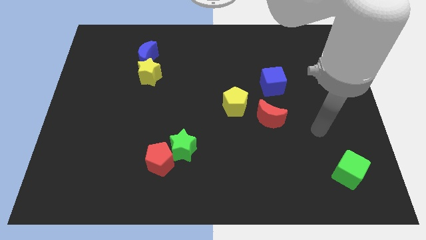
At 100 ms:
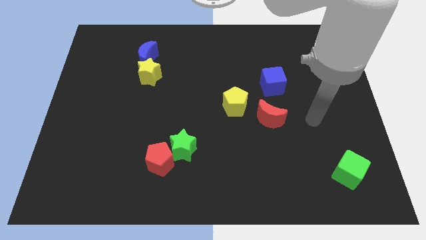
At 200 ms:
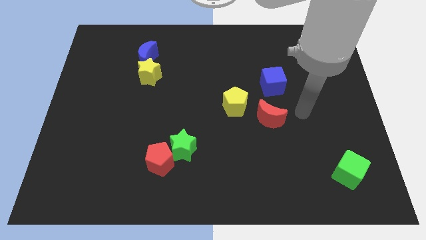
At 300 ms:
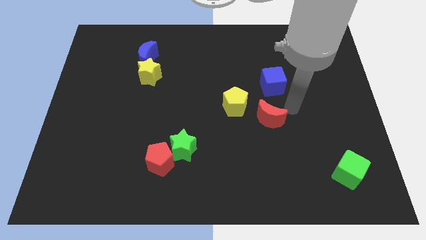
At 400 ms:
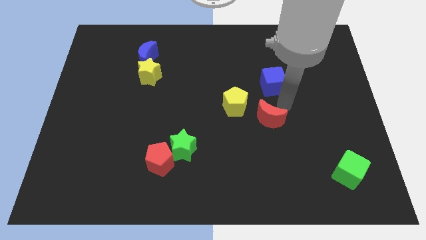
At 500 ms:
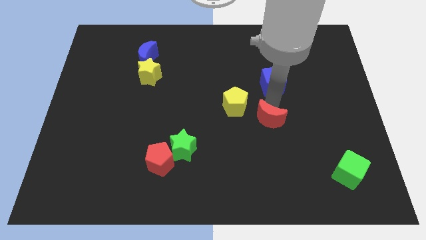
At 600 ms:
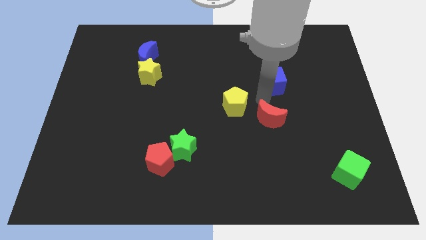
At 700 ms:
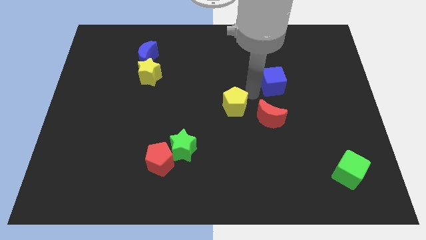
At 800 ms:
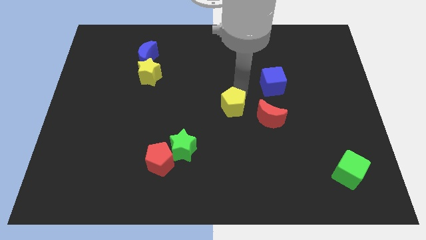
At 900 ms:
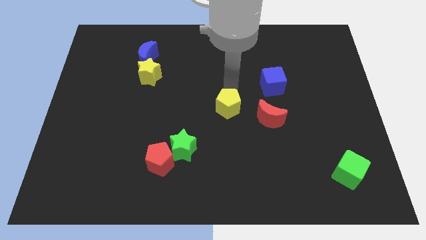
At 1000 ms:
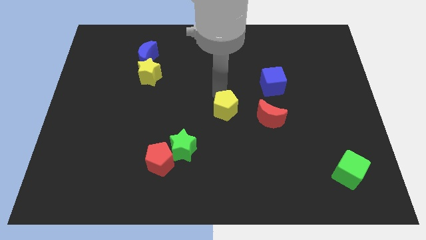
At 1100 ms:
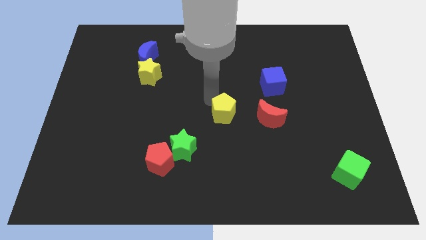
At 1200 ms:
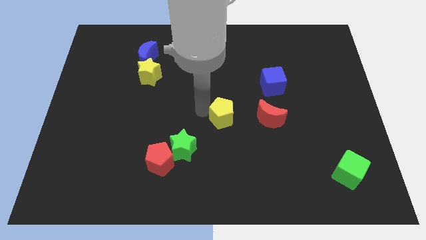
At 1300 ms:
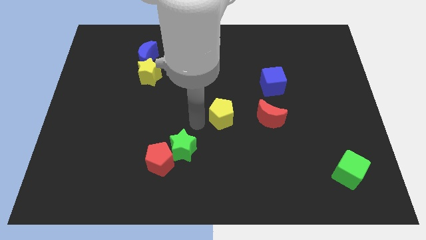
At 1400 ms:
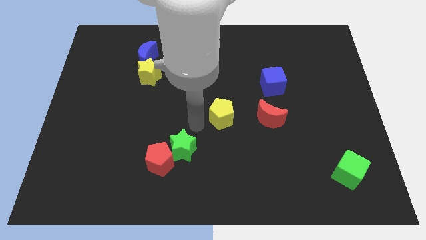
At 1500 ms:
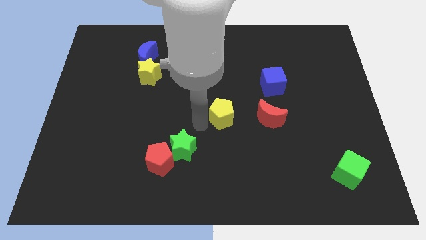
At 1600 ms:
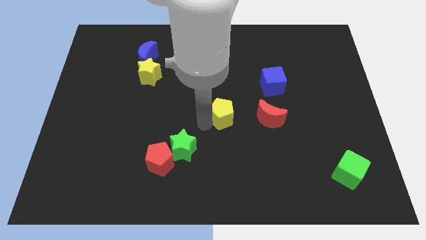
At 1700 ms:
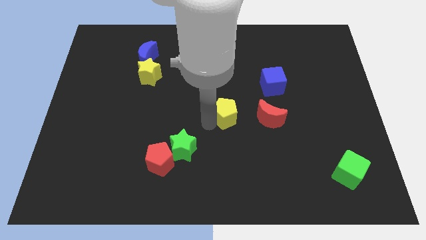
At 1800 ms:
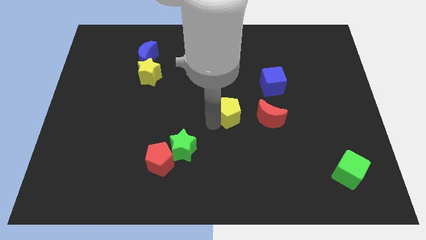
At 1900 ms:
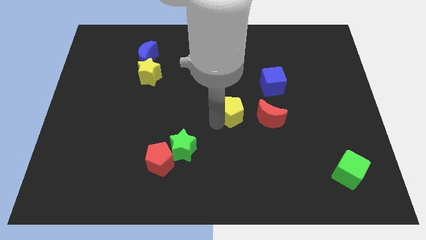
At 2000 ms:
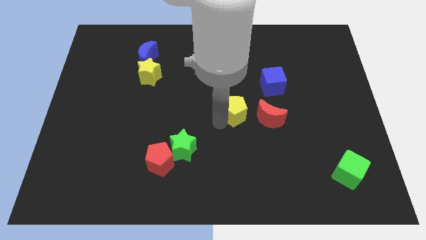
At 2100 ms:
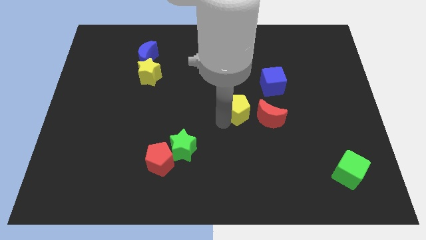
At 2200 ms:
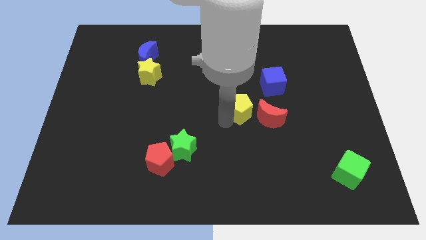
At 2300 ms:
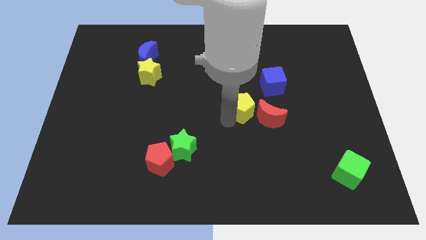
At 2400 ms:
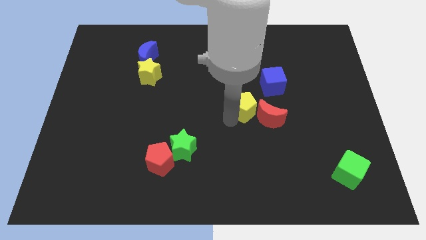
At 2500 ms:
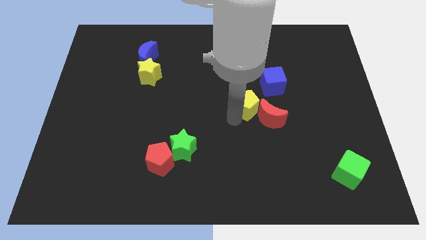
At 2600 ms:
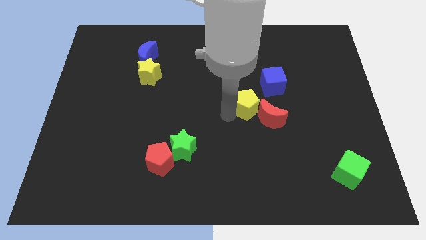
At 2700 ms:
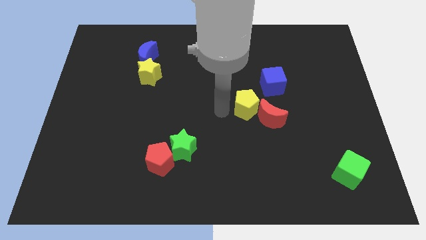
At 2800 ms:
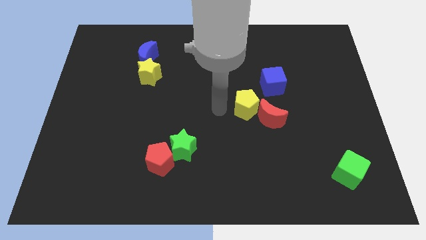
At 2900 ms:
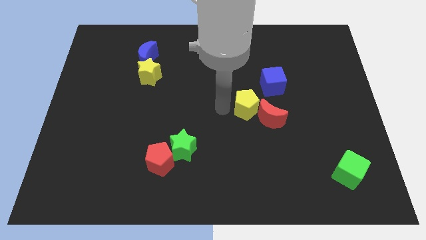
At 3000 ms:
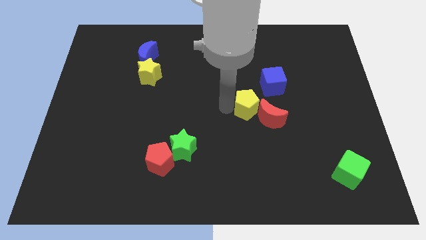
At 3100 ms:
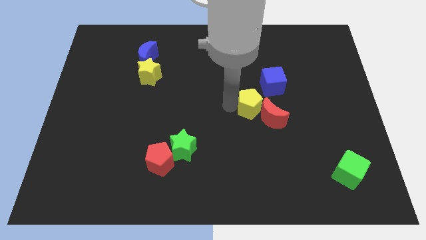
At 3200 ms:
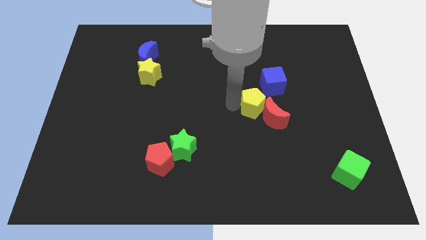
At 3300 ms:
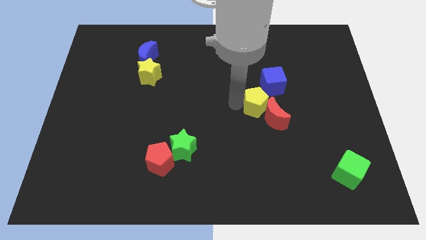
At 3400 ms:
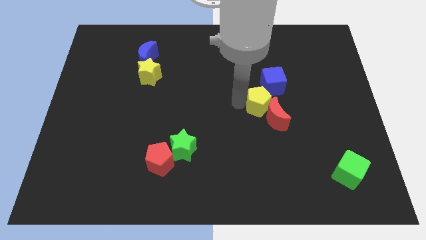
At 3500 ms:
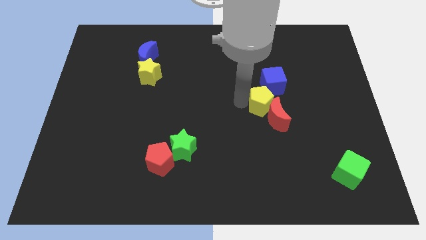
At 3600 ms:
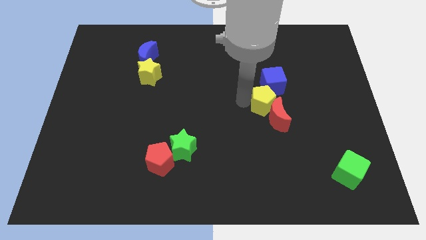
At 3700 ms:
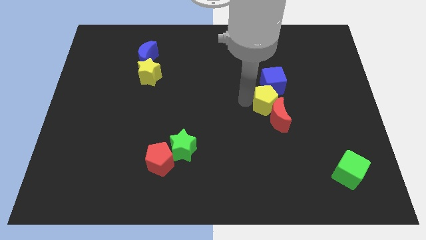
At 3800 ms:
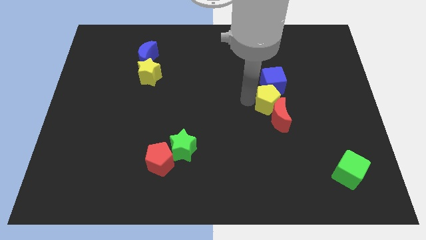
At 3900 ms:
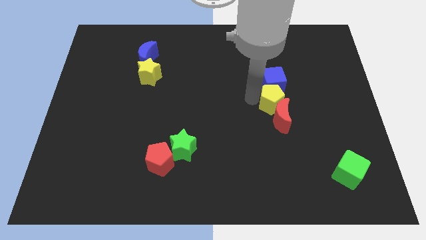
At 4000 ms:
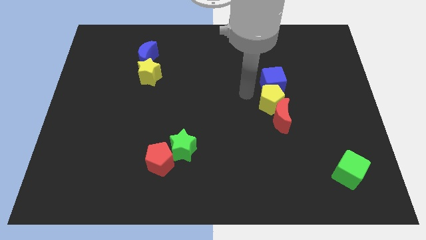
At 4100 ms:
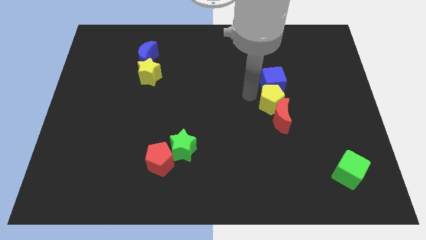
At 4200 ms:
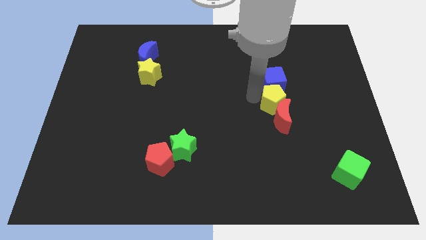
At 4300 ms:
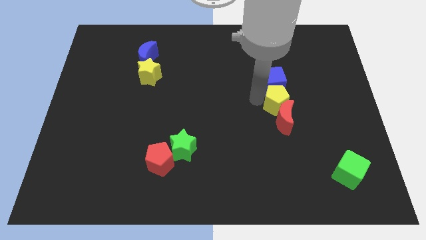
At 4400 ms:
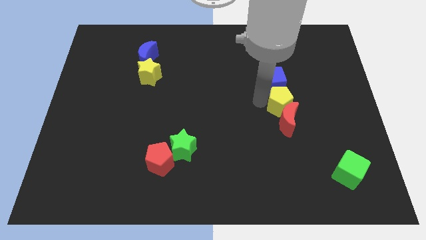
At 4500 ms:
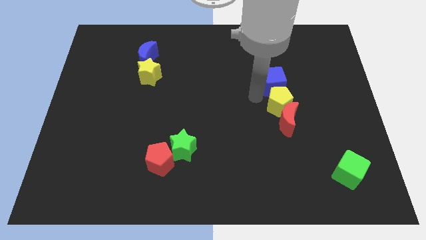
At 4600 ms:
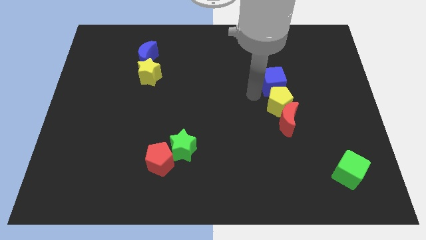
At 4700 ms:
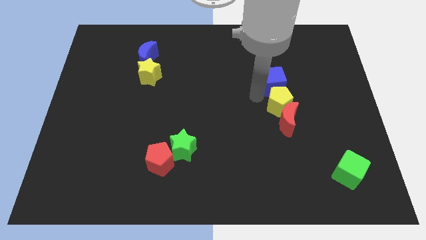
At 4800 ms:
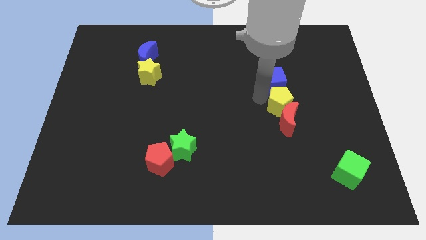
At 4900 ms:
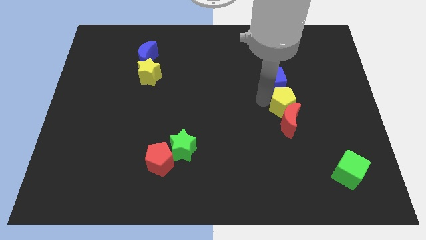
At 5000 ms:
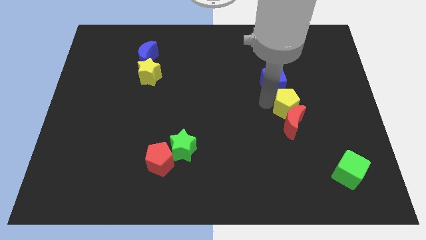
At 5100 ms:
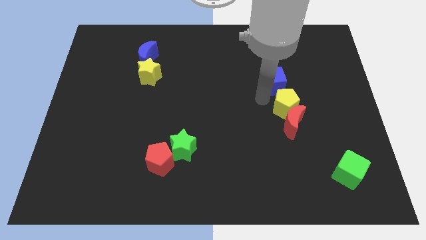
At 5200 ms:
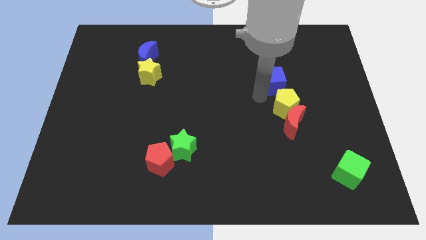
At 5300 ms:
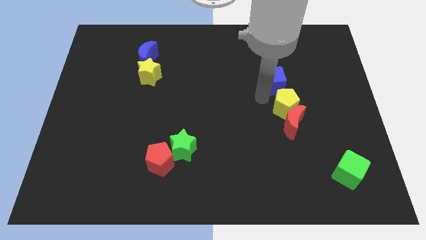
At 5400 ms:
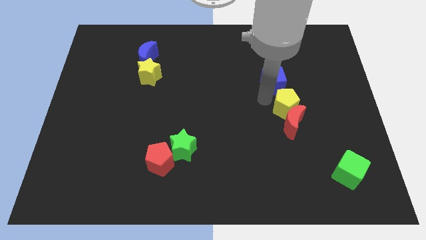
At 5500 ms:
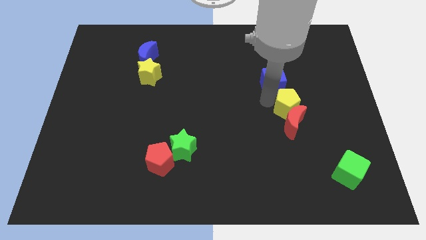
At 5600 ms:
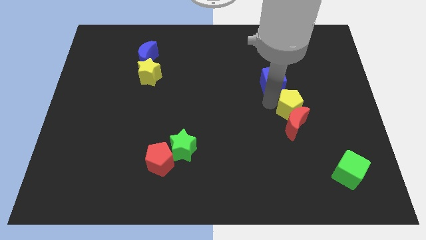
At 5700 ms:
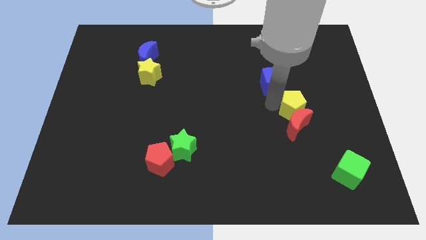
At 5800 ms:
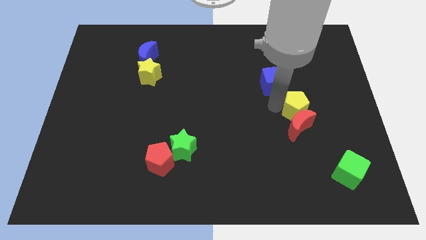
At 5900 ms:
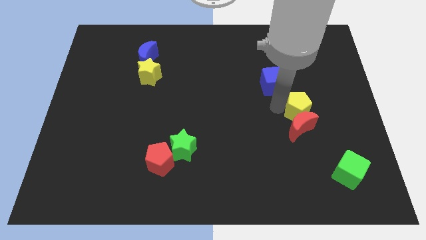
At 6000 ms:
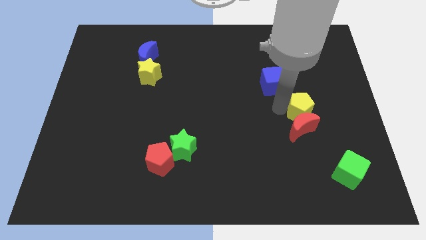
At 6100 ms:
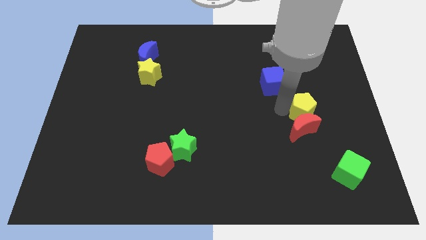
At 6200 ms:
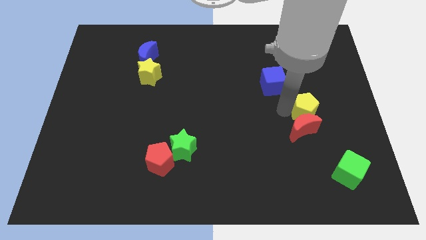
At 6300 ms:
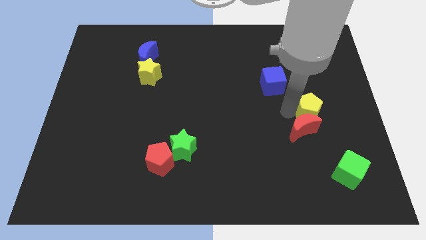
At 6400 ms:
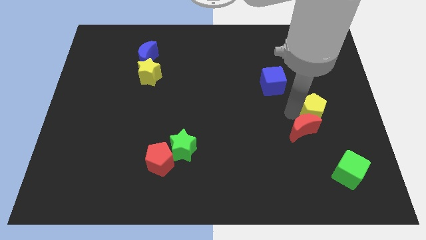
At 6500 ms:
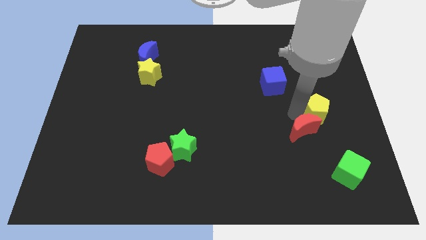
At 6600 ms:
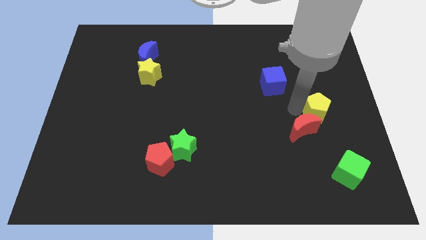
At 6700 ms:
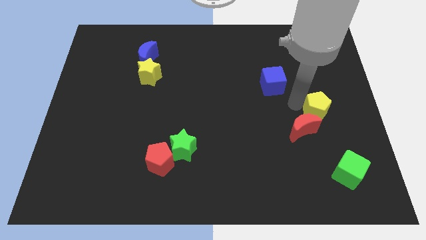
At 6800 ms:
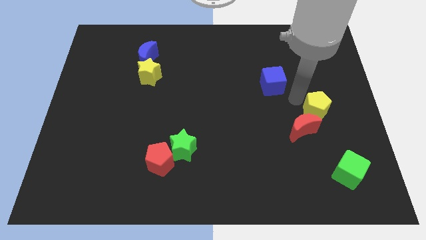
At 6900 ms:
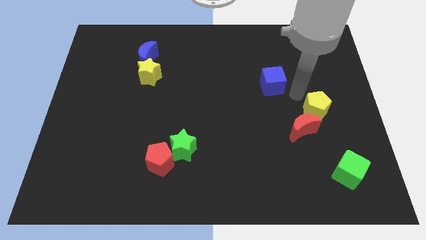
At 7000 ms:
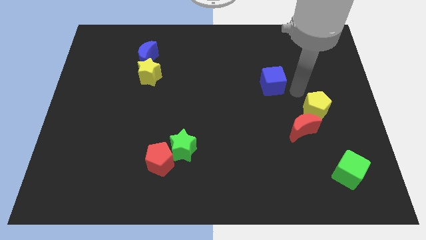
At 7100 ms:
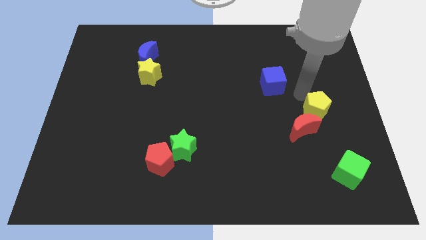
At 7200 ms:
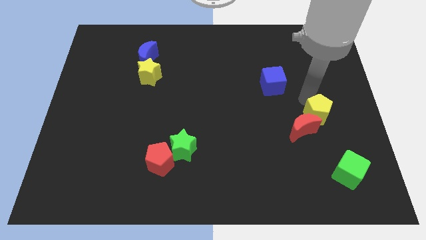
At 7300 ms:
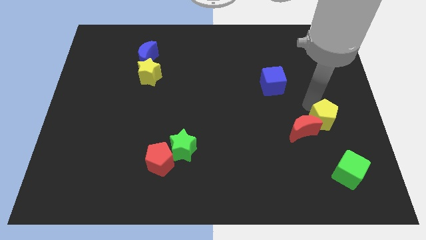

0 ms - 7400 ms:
put the yellow pentagon above the green cube
